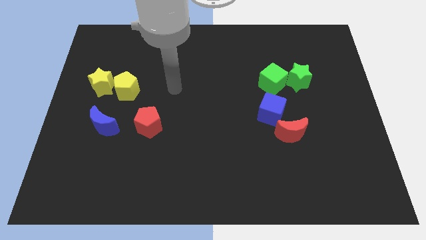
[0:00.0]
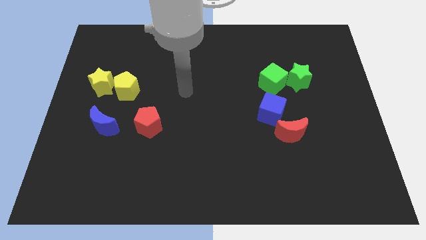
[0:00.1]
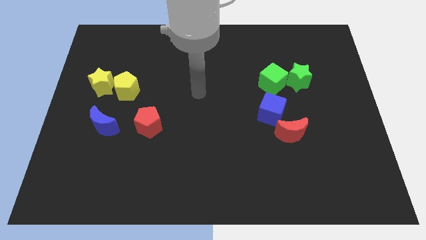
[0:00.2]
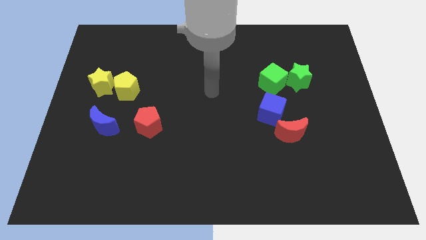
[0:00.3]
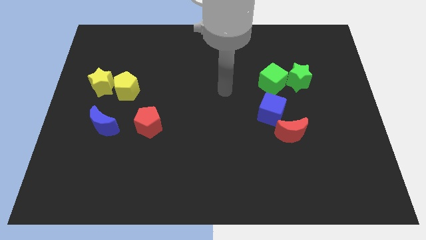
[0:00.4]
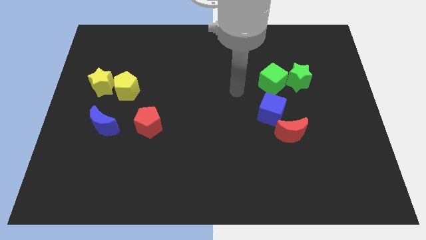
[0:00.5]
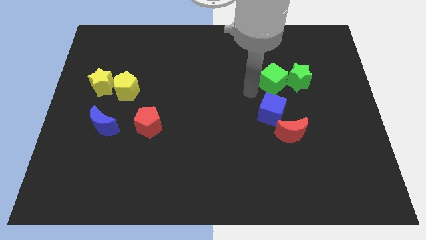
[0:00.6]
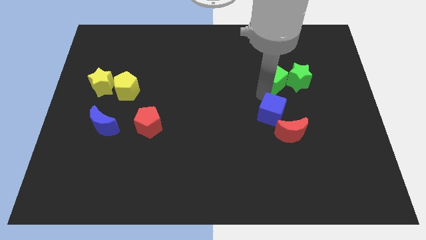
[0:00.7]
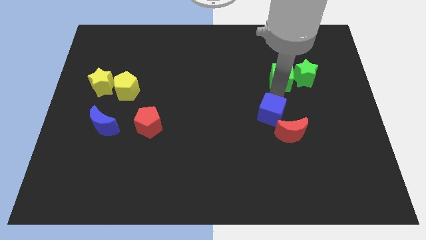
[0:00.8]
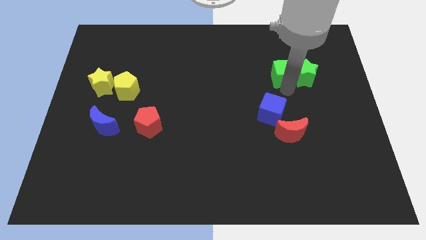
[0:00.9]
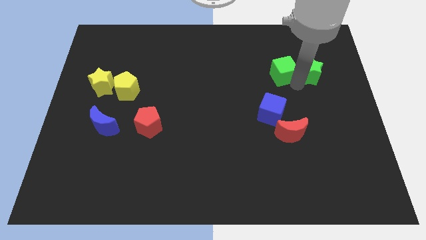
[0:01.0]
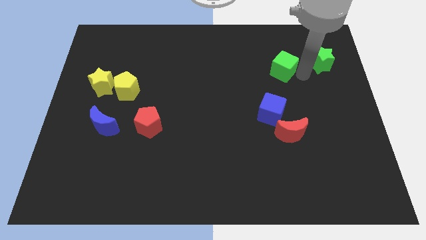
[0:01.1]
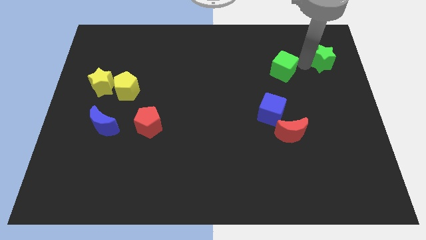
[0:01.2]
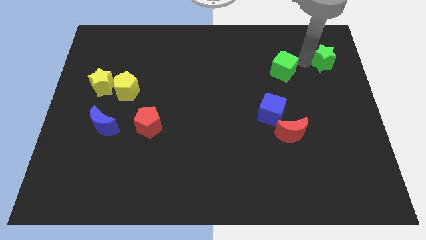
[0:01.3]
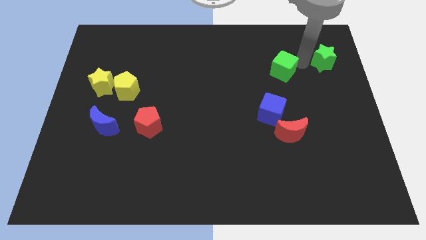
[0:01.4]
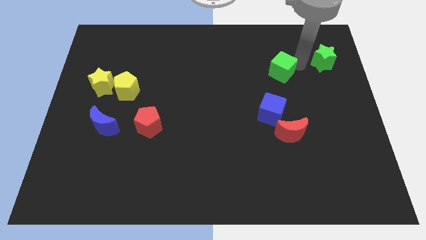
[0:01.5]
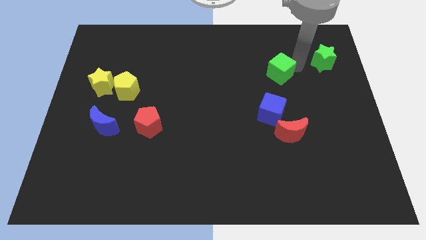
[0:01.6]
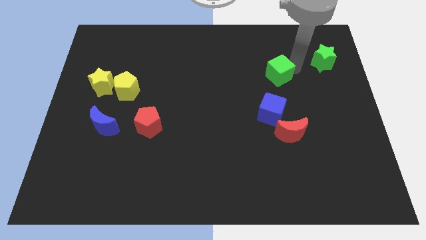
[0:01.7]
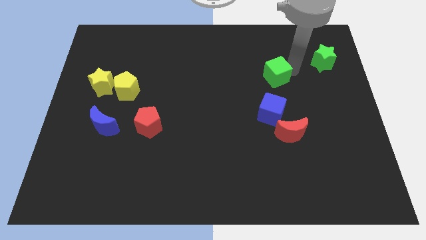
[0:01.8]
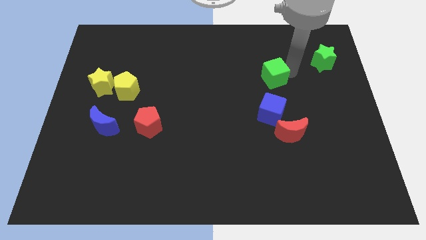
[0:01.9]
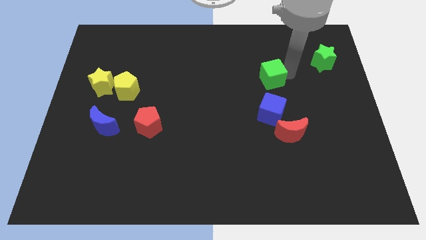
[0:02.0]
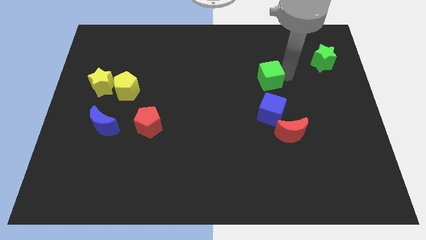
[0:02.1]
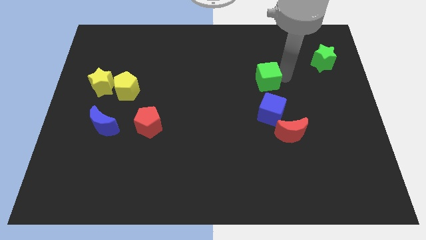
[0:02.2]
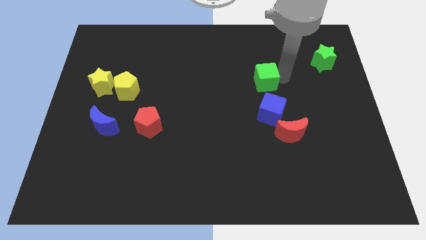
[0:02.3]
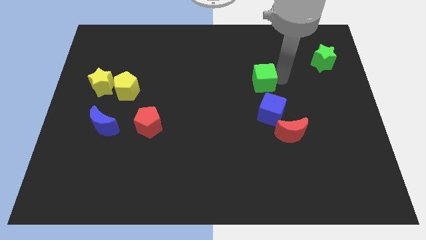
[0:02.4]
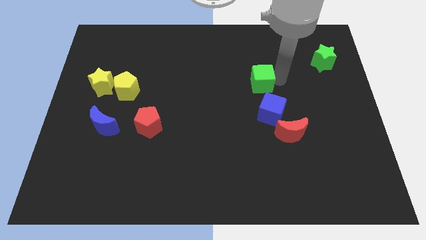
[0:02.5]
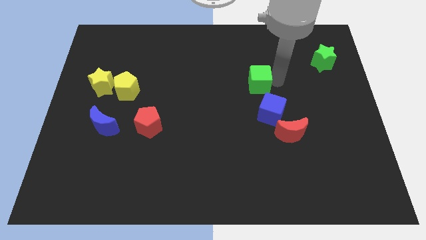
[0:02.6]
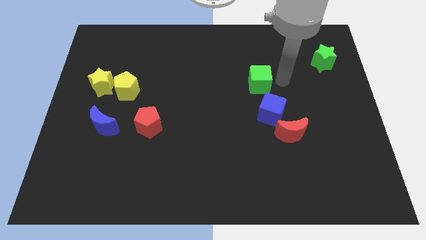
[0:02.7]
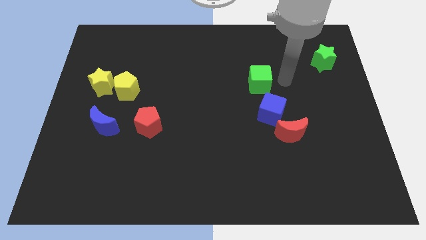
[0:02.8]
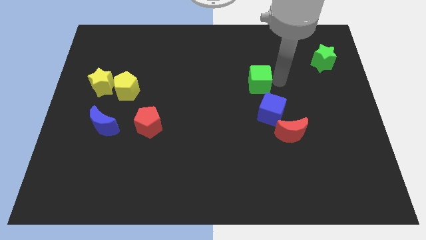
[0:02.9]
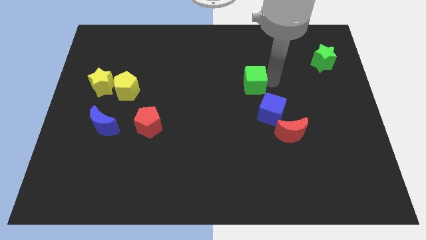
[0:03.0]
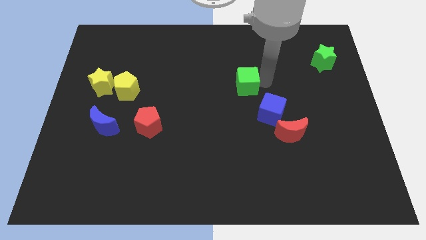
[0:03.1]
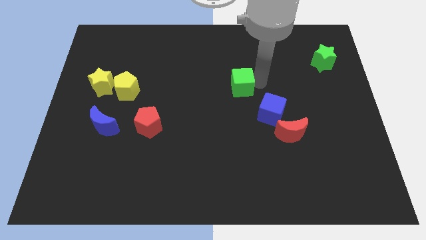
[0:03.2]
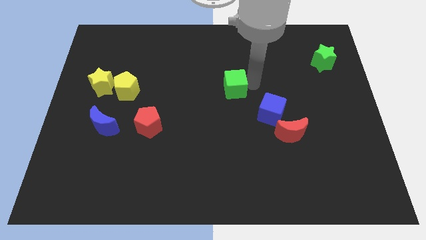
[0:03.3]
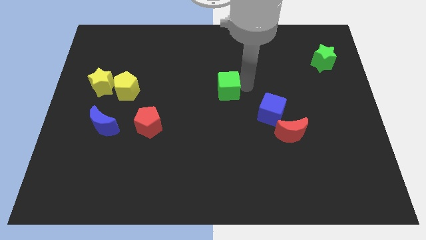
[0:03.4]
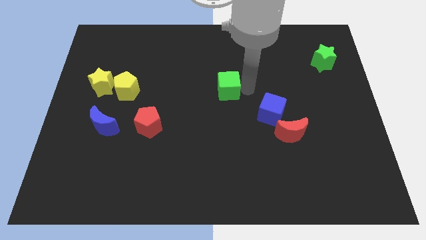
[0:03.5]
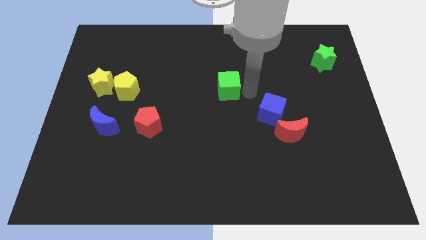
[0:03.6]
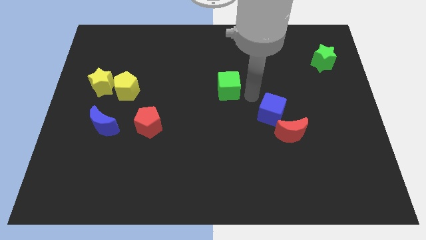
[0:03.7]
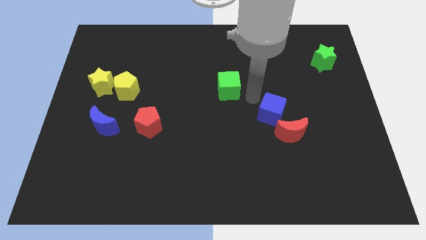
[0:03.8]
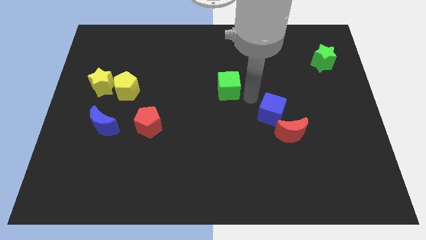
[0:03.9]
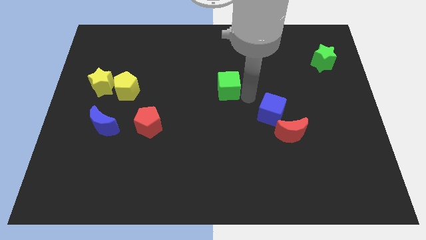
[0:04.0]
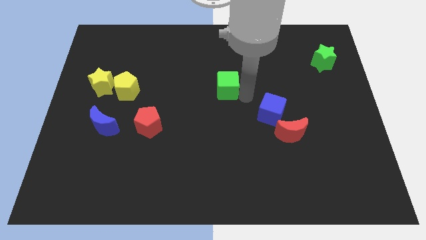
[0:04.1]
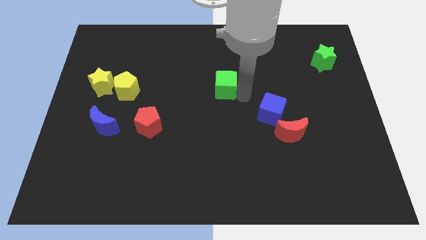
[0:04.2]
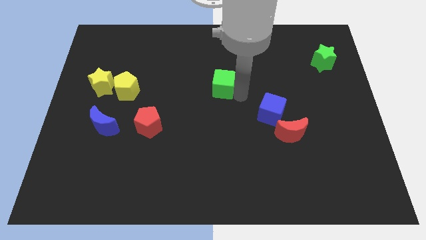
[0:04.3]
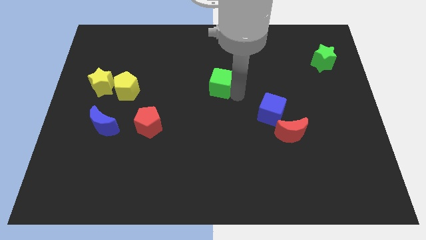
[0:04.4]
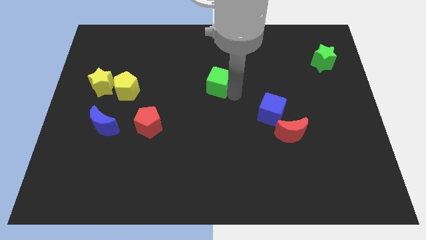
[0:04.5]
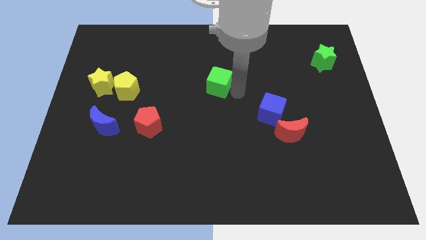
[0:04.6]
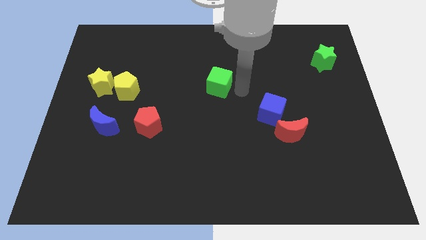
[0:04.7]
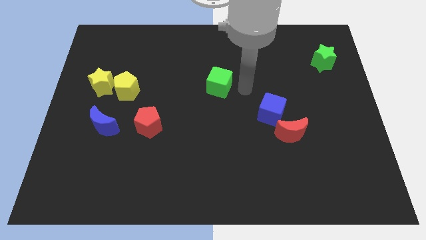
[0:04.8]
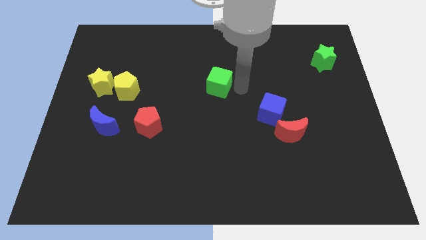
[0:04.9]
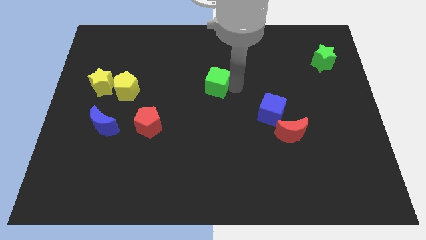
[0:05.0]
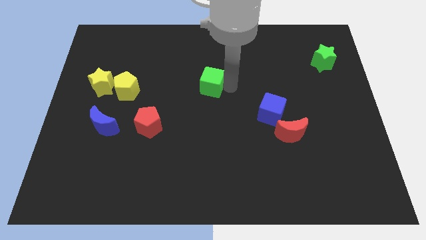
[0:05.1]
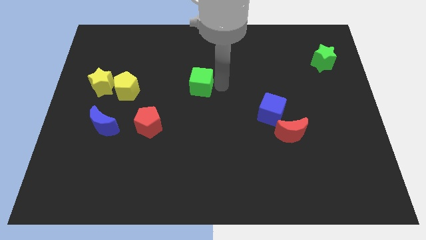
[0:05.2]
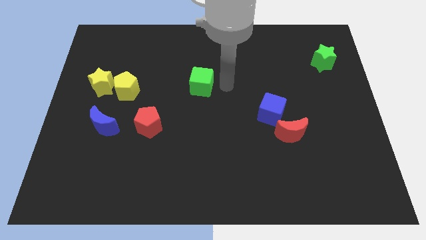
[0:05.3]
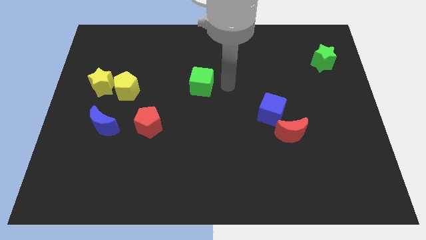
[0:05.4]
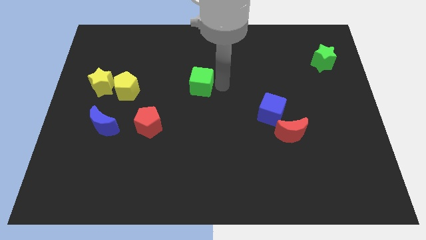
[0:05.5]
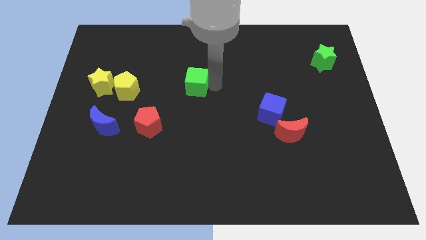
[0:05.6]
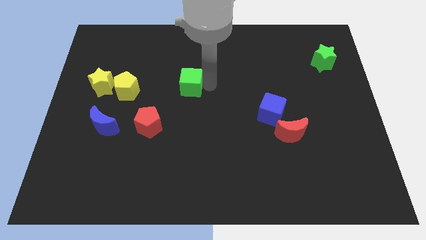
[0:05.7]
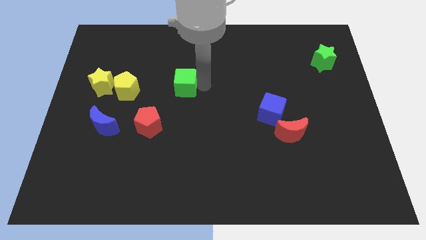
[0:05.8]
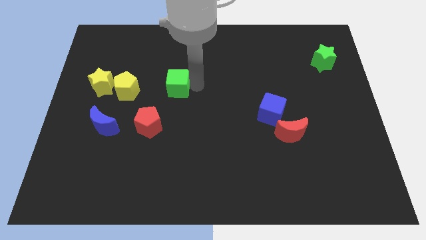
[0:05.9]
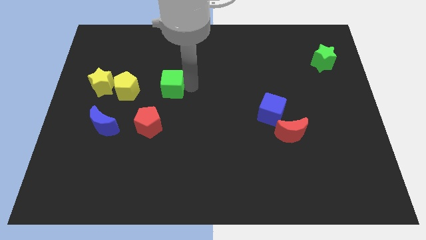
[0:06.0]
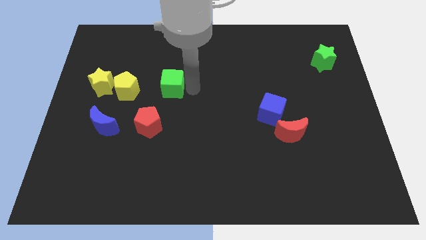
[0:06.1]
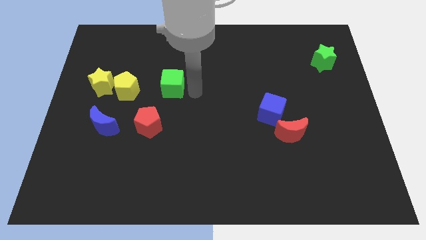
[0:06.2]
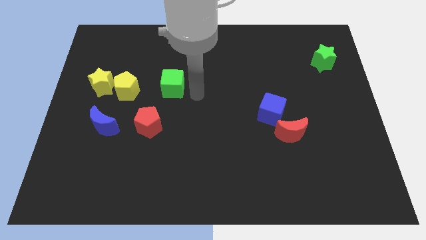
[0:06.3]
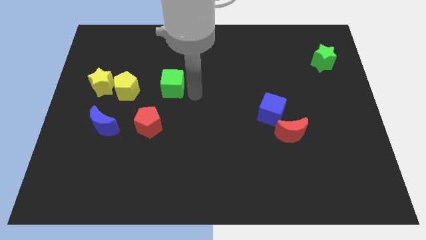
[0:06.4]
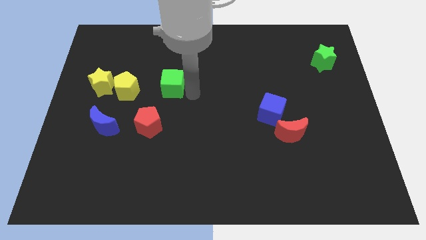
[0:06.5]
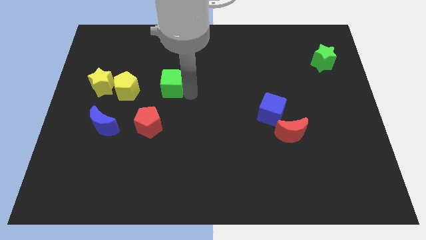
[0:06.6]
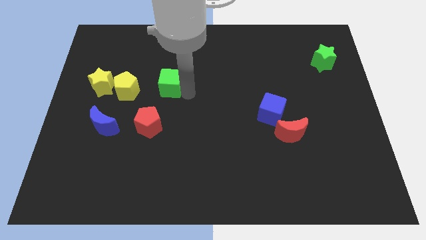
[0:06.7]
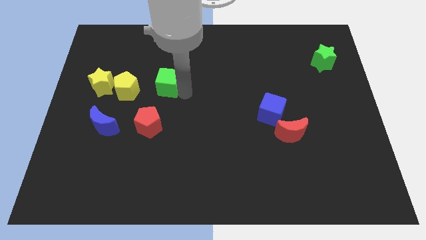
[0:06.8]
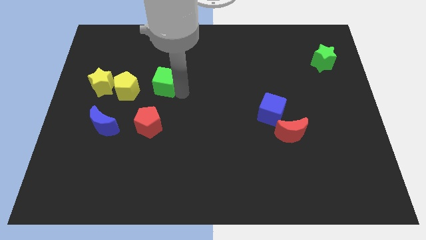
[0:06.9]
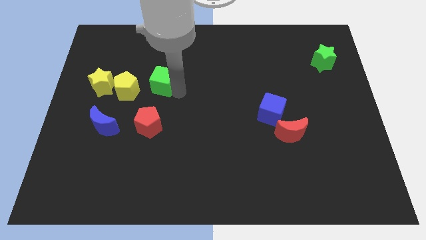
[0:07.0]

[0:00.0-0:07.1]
move the green cube diagonally up and to the right of the yellow pentagon

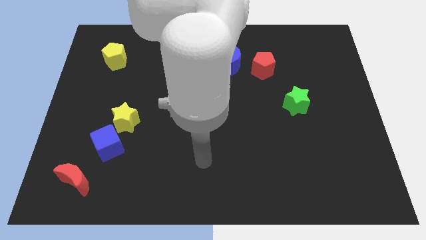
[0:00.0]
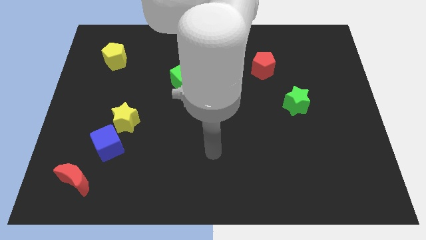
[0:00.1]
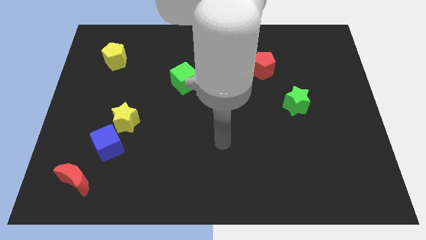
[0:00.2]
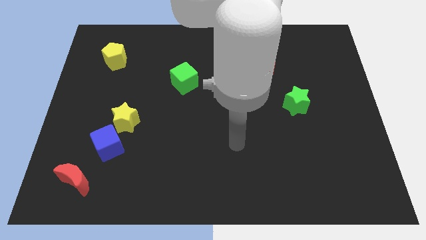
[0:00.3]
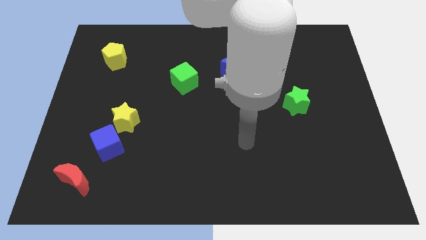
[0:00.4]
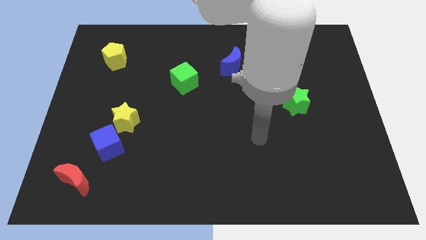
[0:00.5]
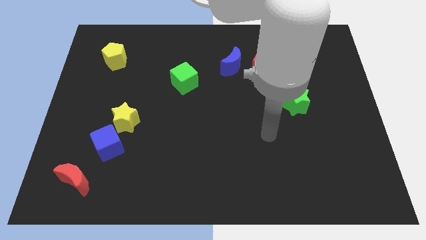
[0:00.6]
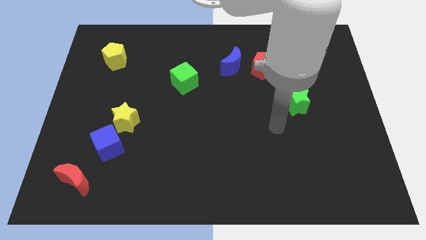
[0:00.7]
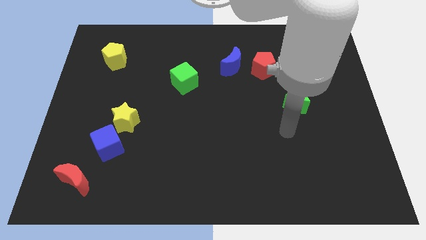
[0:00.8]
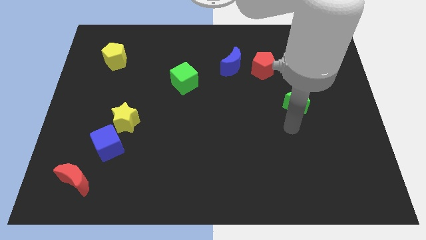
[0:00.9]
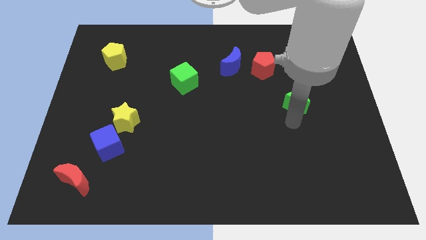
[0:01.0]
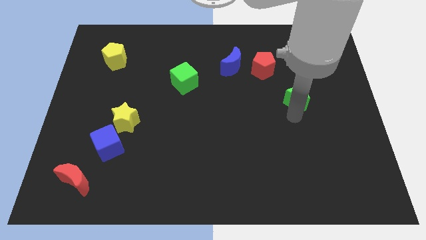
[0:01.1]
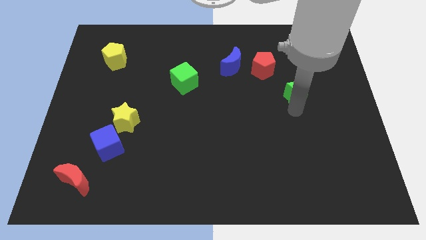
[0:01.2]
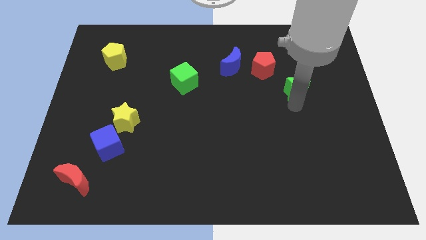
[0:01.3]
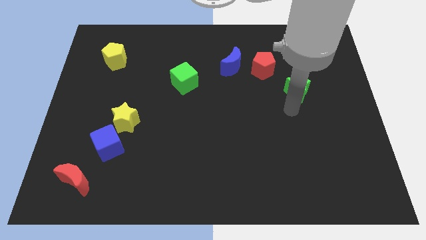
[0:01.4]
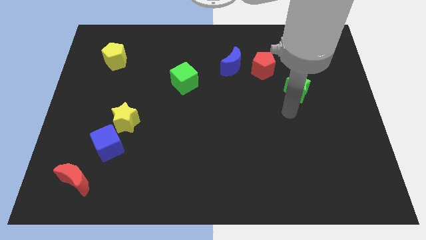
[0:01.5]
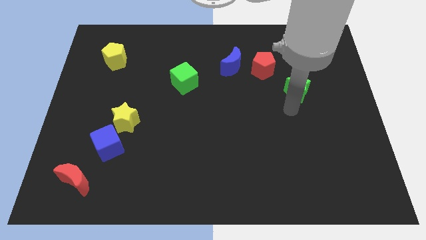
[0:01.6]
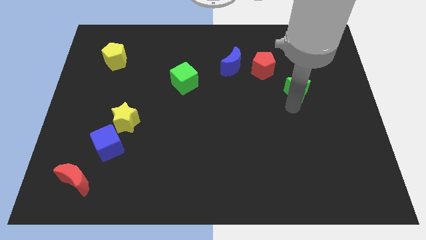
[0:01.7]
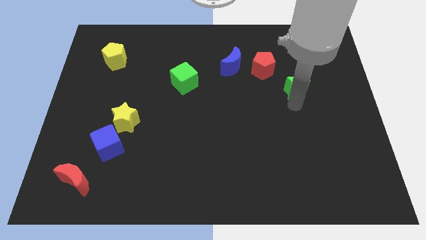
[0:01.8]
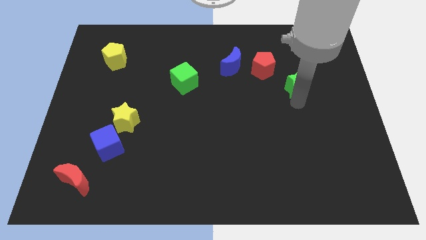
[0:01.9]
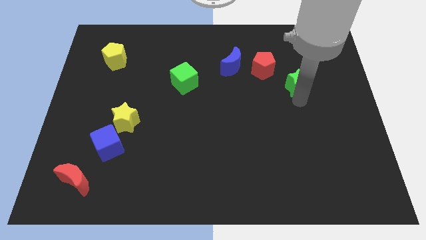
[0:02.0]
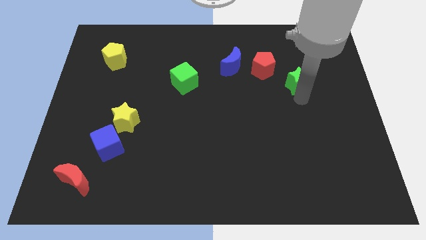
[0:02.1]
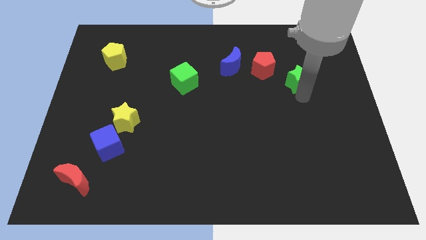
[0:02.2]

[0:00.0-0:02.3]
put the green star right of the red pentagon
